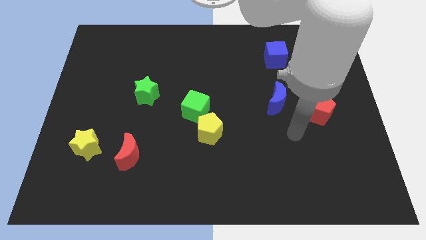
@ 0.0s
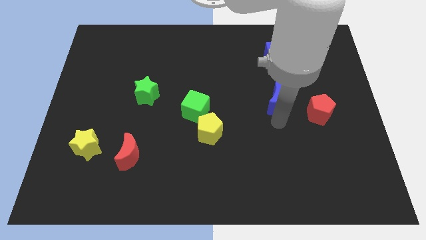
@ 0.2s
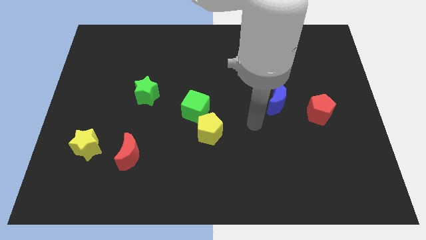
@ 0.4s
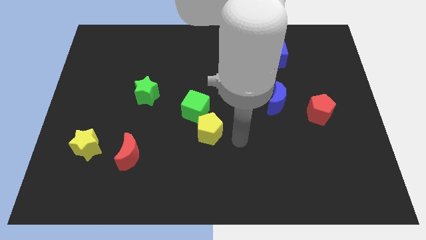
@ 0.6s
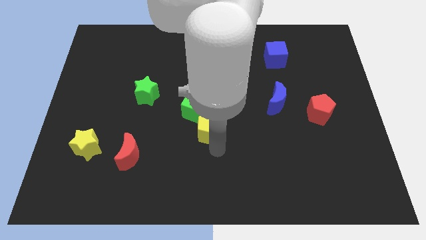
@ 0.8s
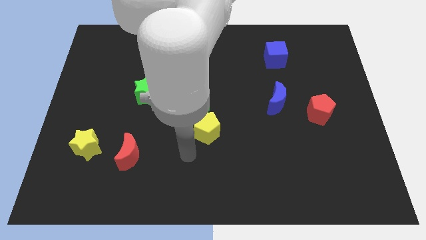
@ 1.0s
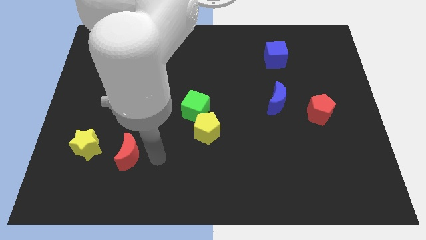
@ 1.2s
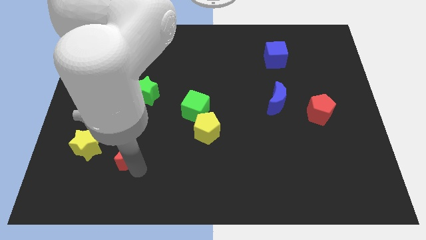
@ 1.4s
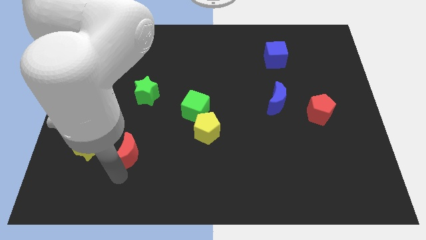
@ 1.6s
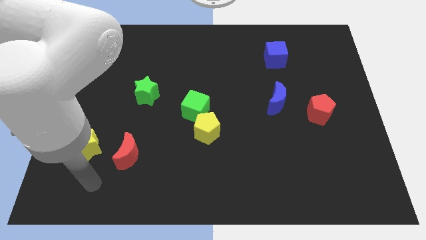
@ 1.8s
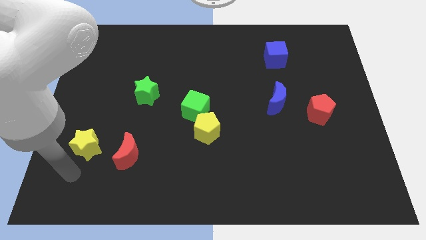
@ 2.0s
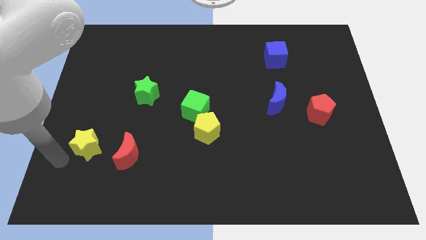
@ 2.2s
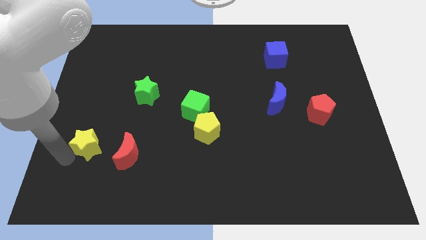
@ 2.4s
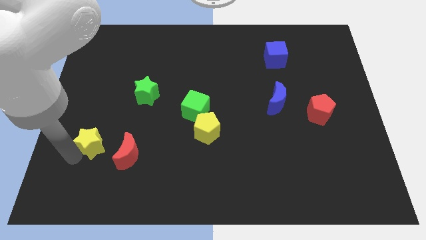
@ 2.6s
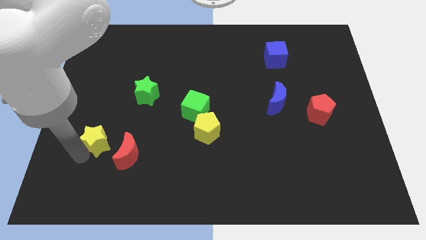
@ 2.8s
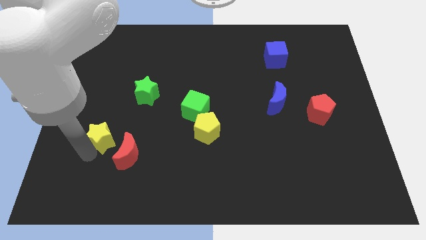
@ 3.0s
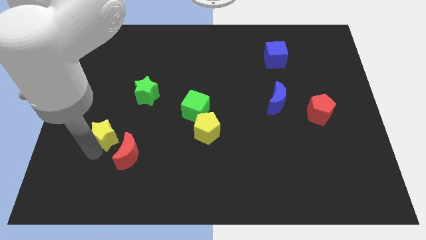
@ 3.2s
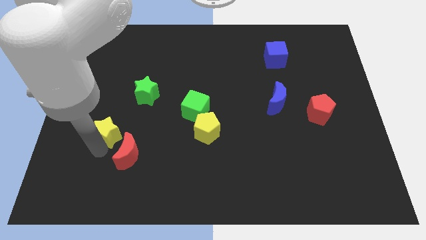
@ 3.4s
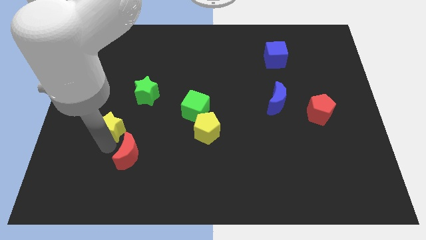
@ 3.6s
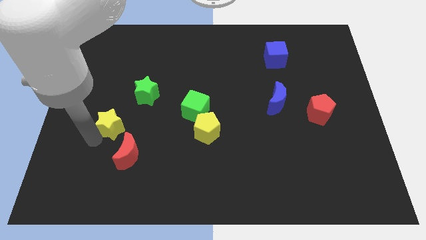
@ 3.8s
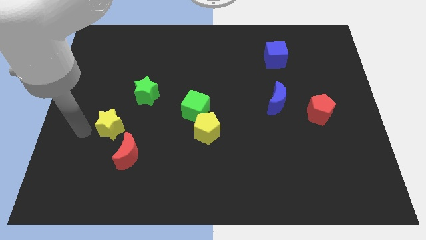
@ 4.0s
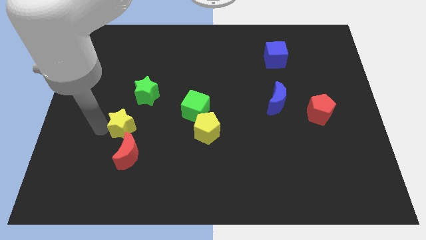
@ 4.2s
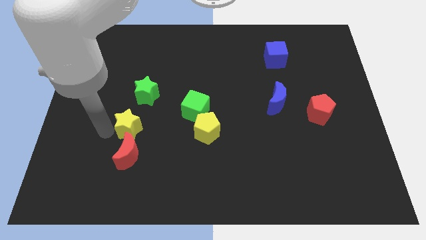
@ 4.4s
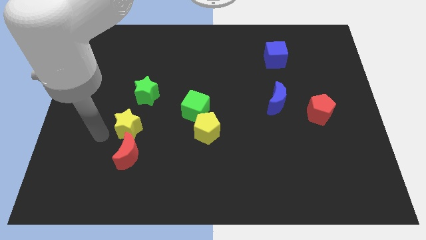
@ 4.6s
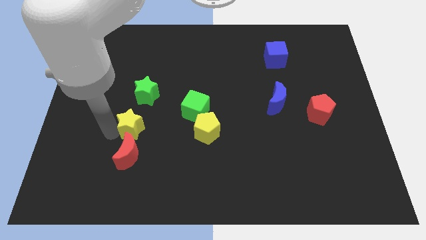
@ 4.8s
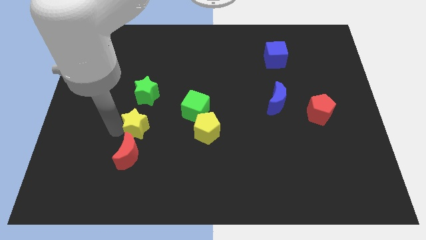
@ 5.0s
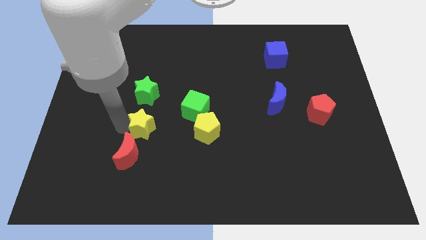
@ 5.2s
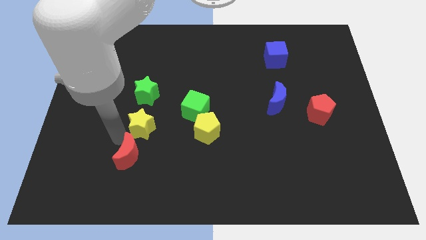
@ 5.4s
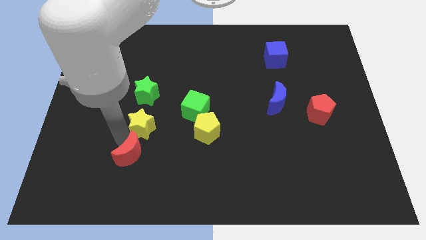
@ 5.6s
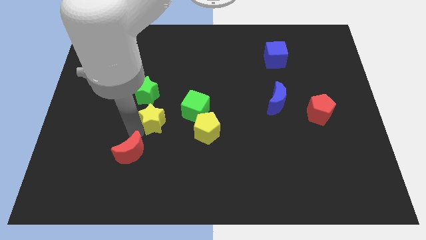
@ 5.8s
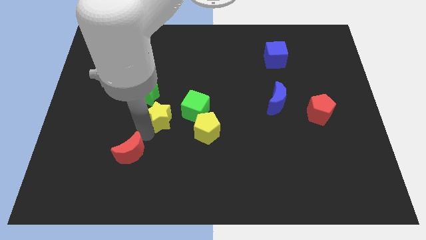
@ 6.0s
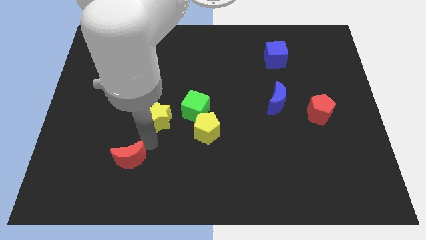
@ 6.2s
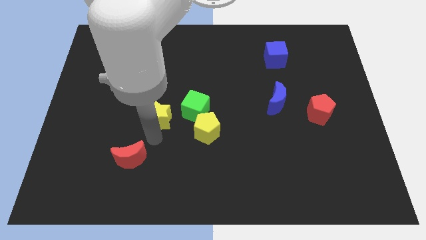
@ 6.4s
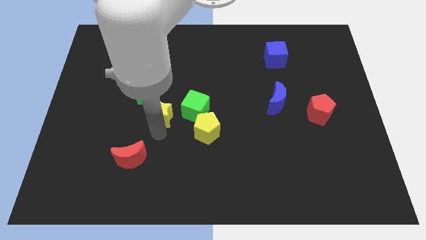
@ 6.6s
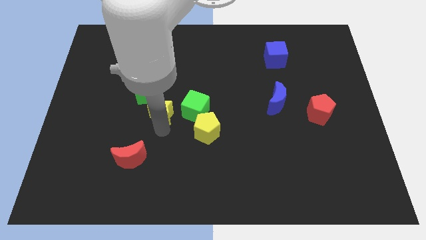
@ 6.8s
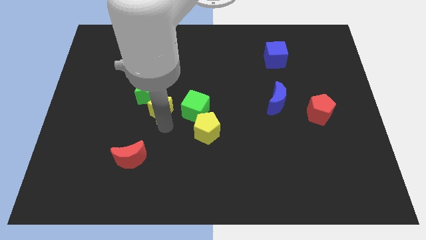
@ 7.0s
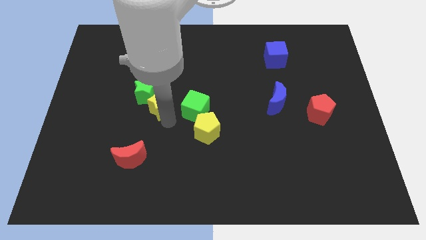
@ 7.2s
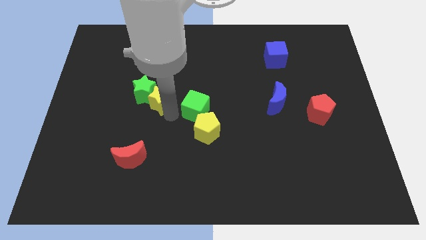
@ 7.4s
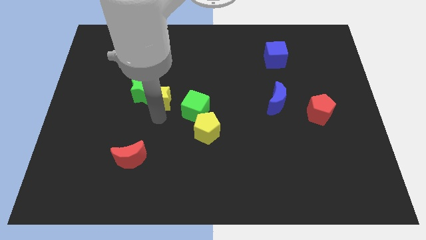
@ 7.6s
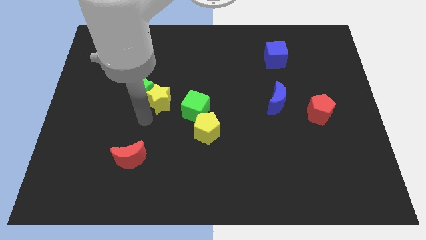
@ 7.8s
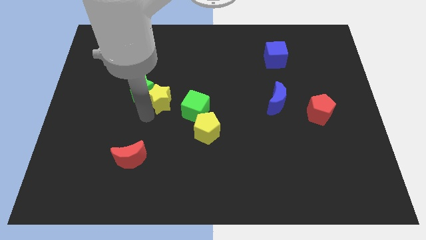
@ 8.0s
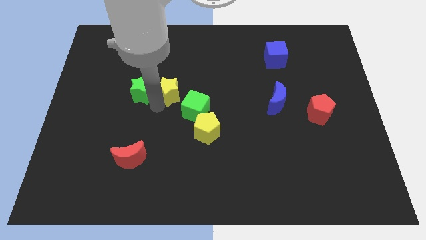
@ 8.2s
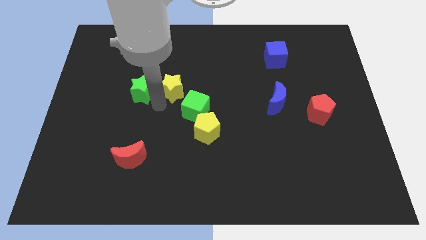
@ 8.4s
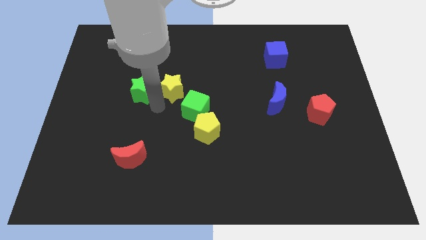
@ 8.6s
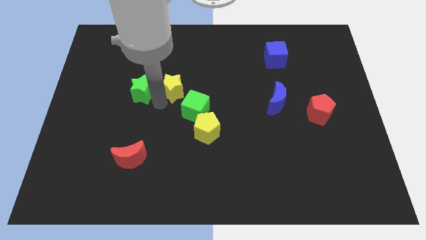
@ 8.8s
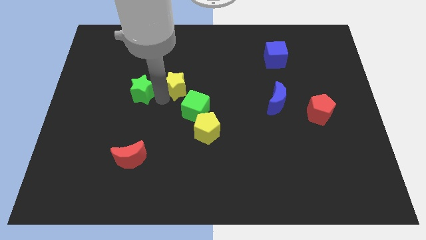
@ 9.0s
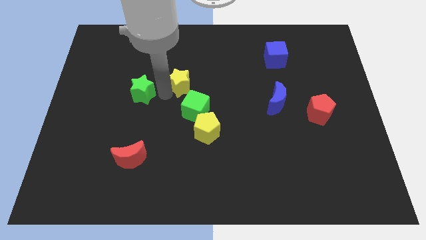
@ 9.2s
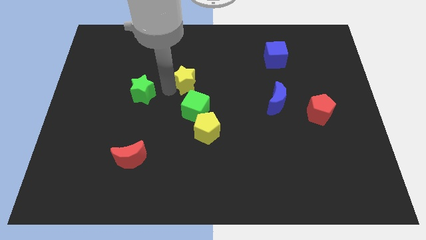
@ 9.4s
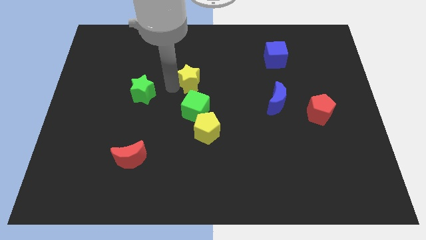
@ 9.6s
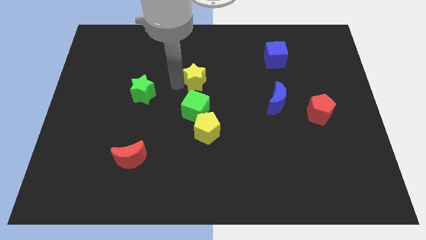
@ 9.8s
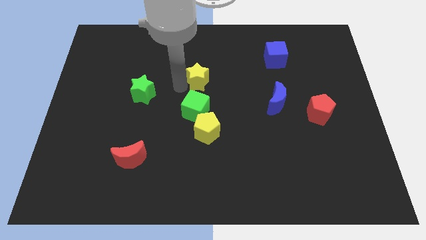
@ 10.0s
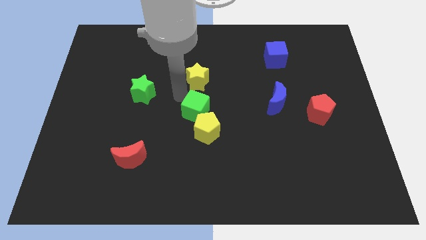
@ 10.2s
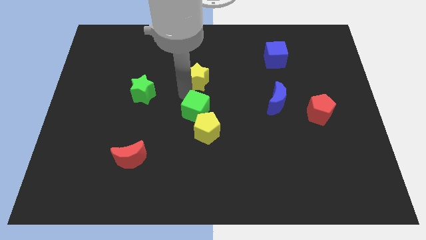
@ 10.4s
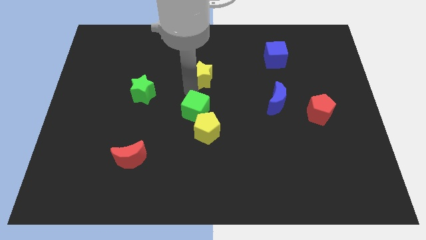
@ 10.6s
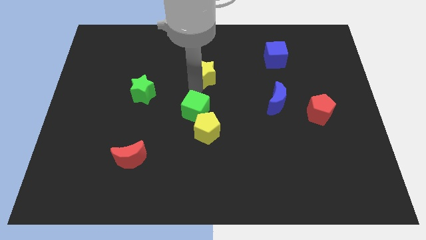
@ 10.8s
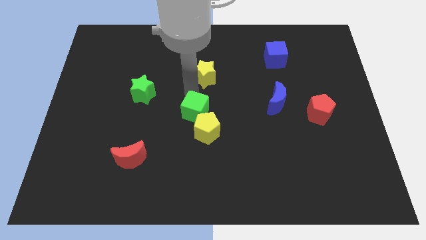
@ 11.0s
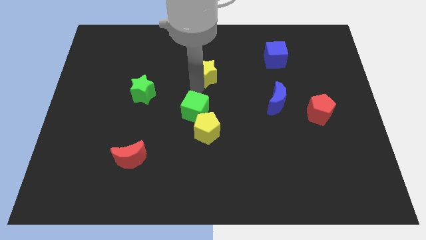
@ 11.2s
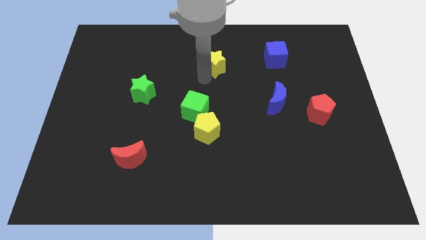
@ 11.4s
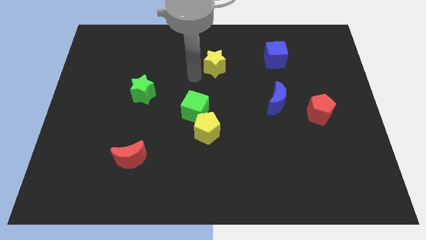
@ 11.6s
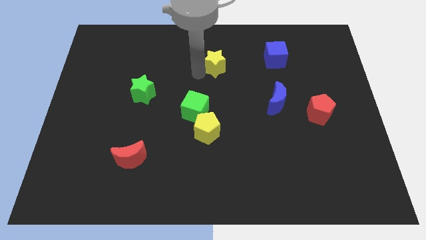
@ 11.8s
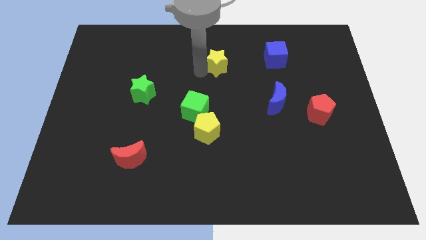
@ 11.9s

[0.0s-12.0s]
slide the yellow star just left of the blue cube
